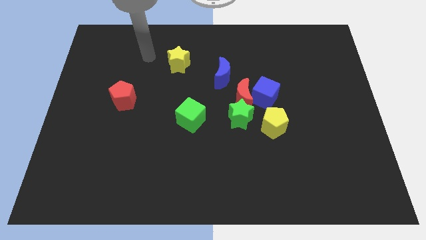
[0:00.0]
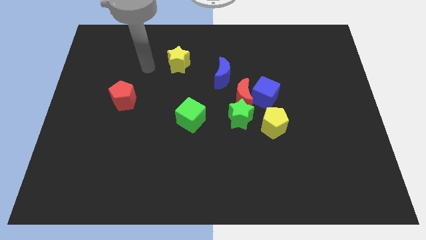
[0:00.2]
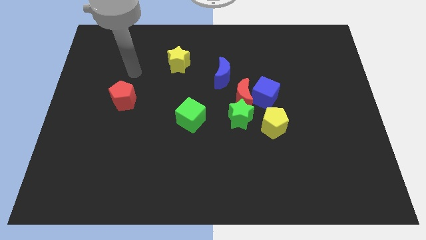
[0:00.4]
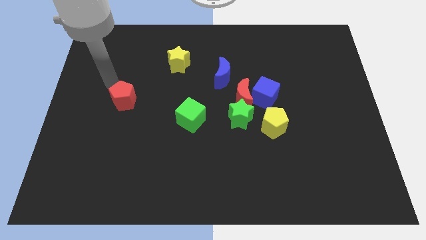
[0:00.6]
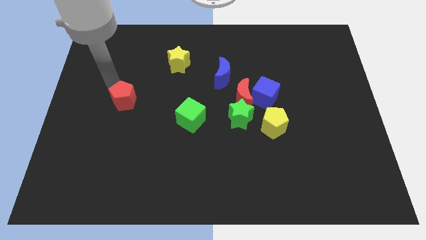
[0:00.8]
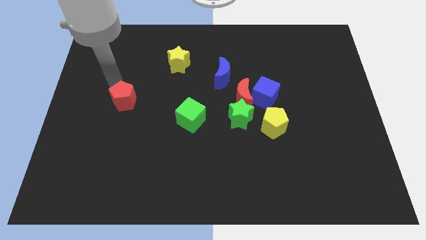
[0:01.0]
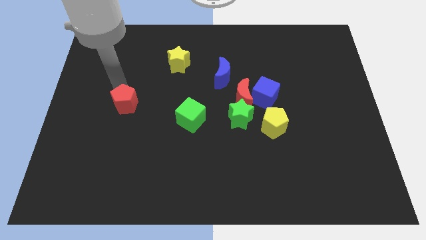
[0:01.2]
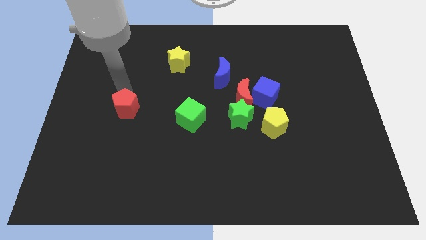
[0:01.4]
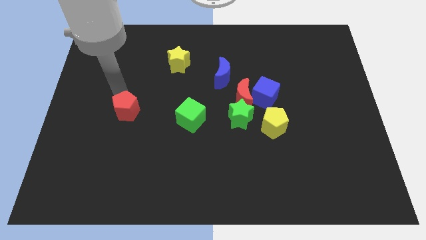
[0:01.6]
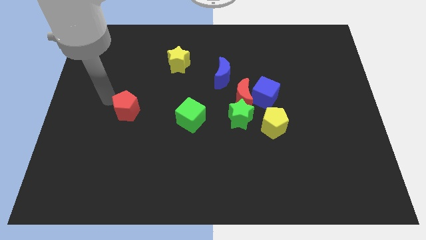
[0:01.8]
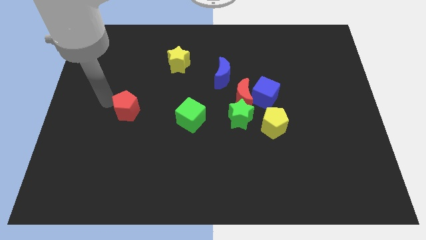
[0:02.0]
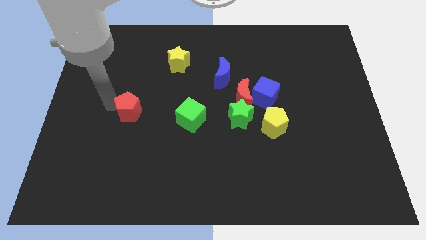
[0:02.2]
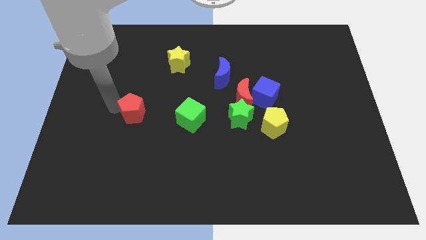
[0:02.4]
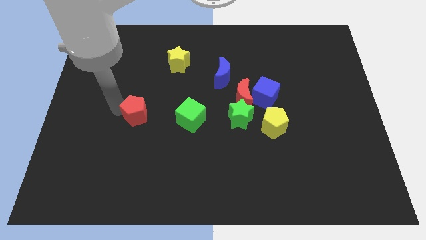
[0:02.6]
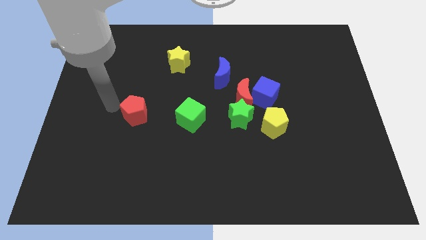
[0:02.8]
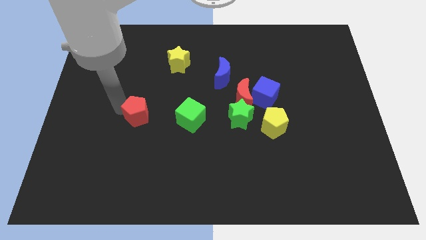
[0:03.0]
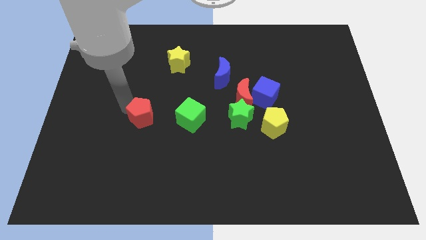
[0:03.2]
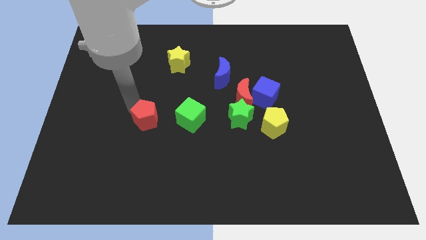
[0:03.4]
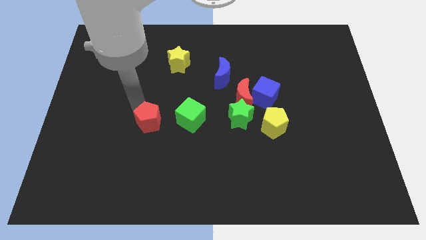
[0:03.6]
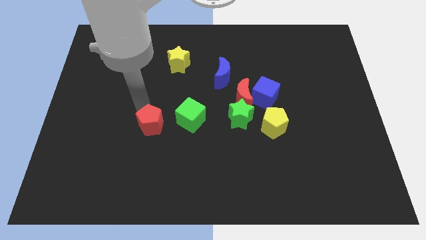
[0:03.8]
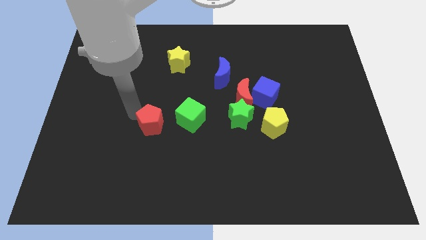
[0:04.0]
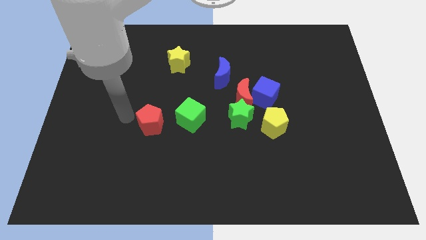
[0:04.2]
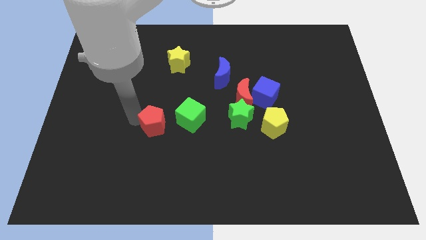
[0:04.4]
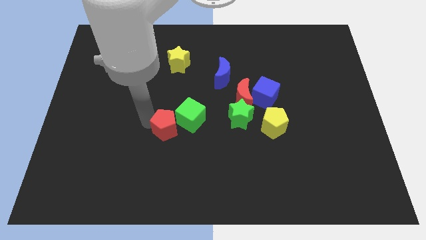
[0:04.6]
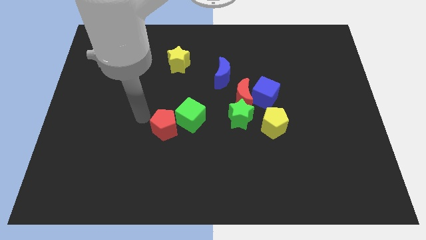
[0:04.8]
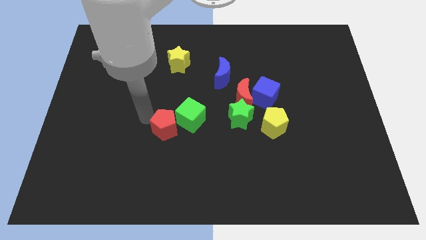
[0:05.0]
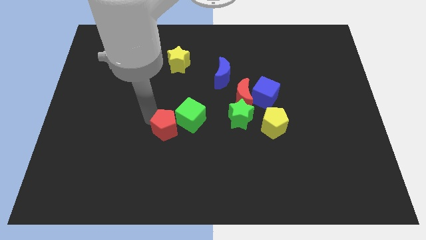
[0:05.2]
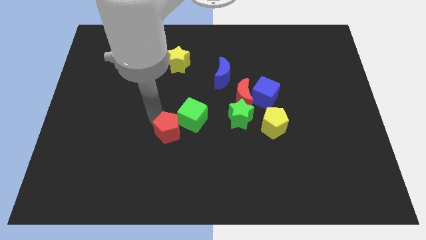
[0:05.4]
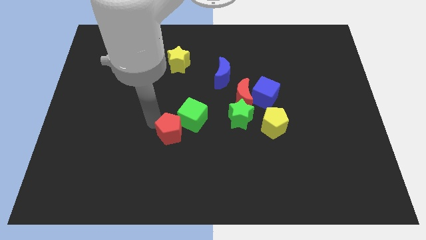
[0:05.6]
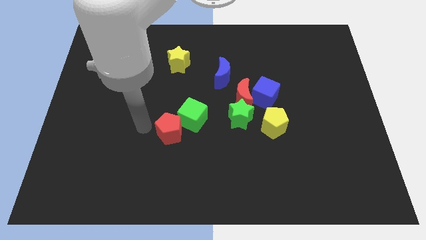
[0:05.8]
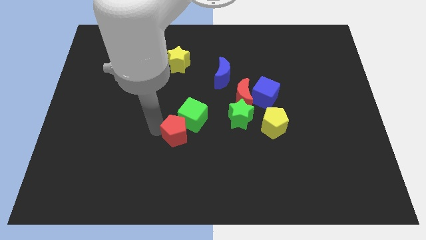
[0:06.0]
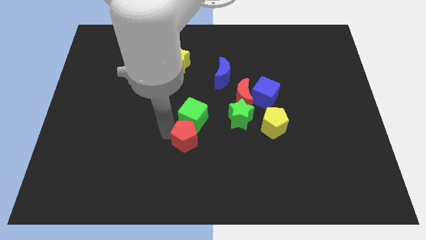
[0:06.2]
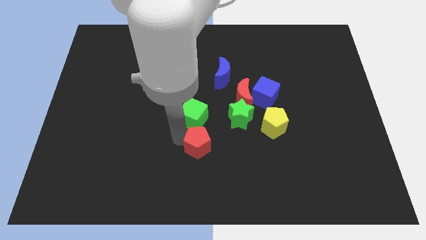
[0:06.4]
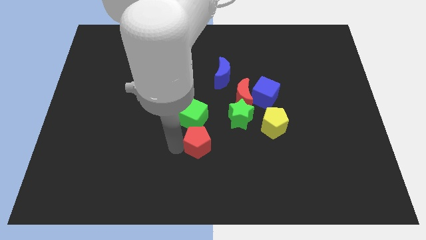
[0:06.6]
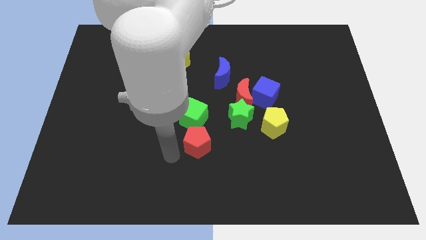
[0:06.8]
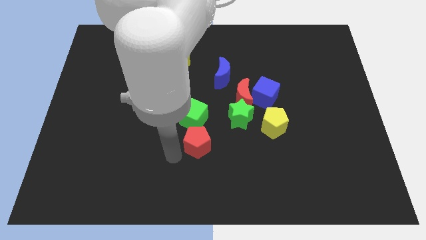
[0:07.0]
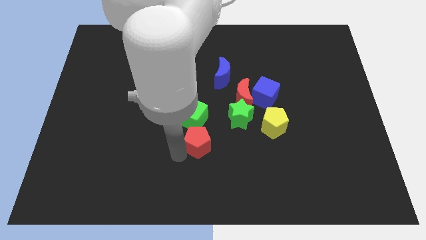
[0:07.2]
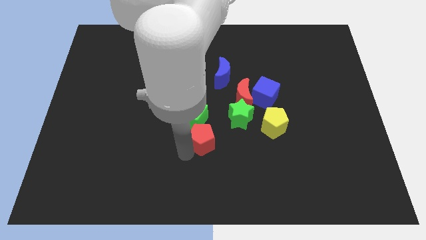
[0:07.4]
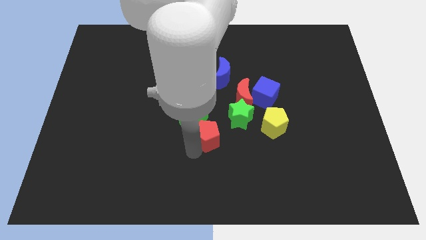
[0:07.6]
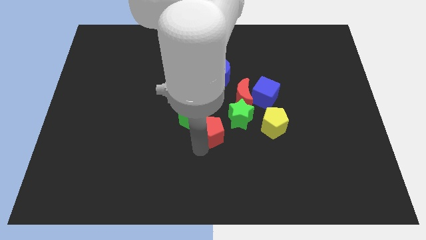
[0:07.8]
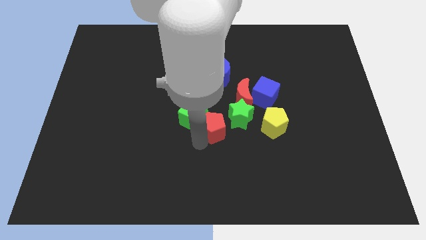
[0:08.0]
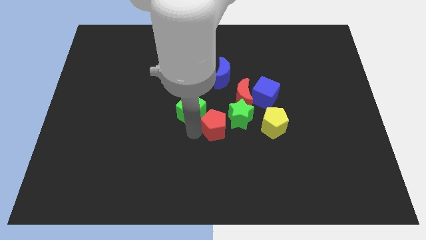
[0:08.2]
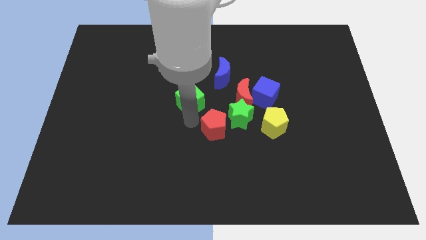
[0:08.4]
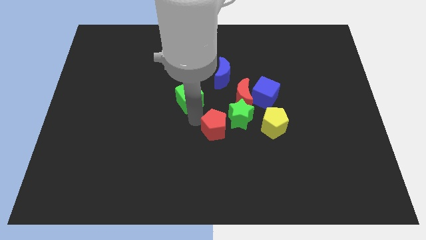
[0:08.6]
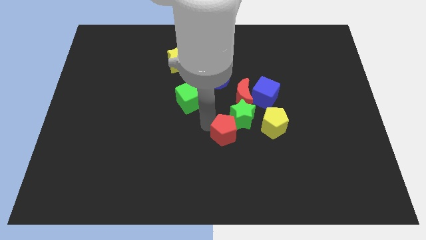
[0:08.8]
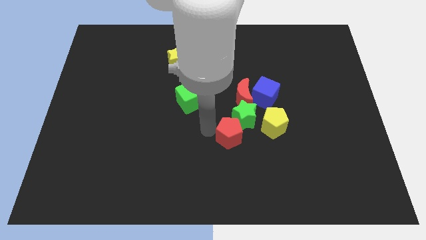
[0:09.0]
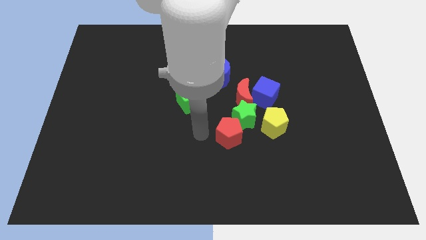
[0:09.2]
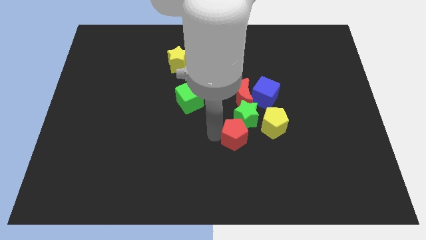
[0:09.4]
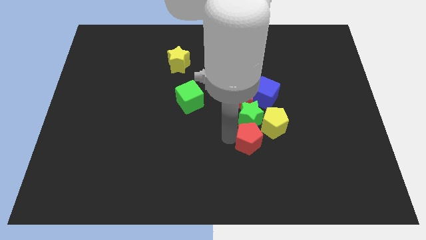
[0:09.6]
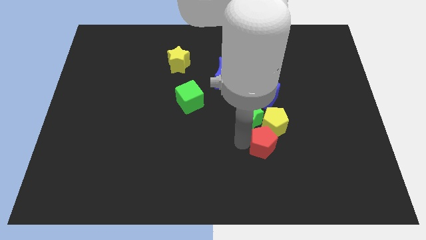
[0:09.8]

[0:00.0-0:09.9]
move the red pentagon to the yellow pentagon

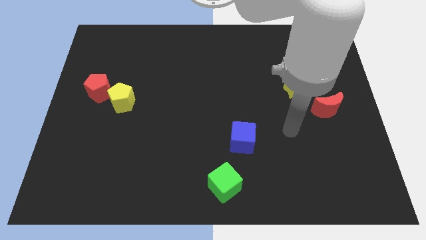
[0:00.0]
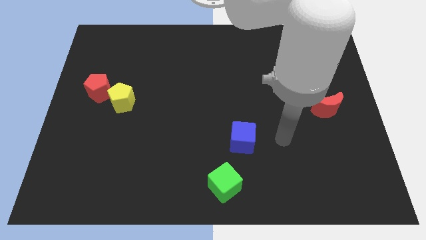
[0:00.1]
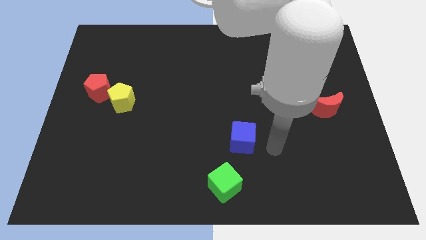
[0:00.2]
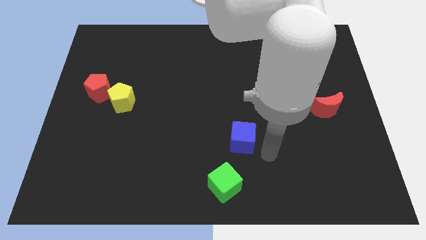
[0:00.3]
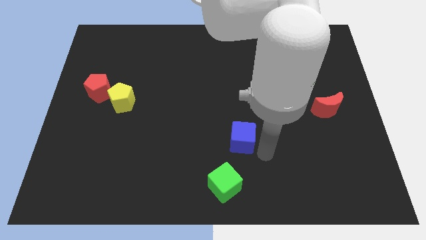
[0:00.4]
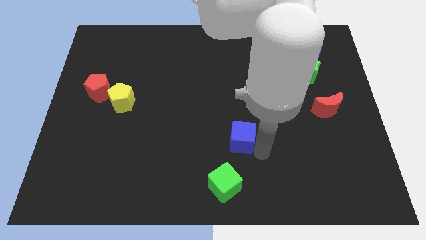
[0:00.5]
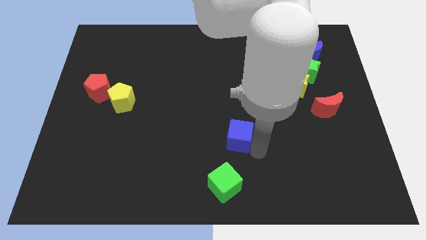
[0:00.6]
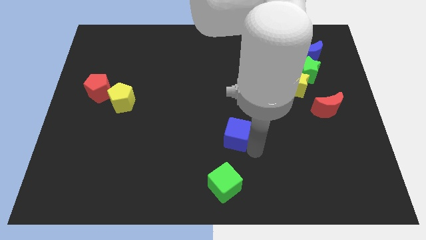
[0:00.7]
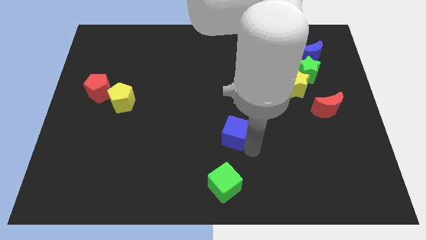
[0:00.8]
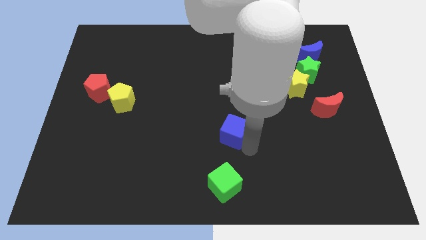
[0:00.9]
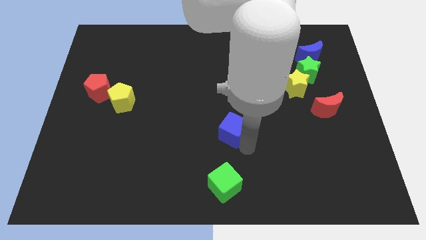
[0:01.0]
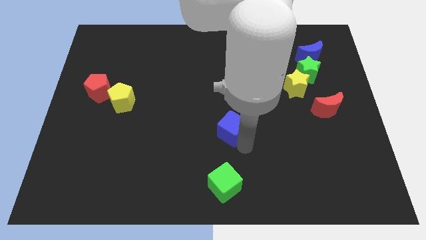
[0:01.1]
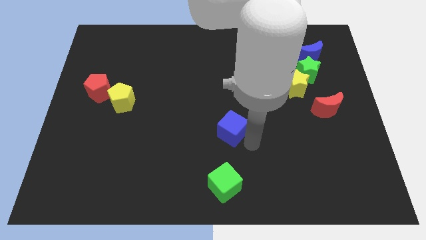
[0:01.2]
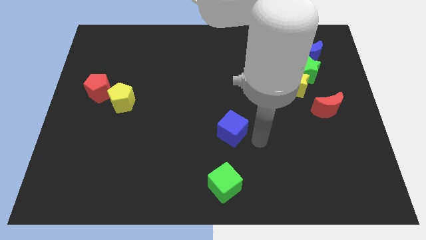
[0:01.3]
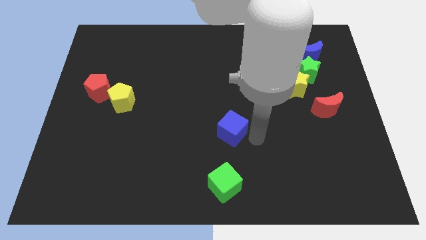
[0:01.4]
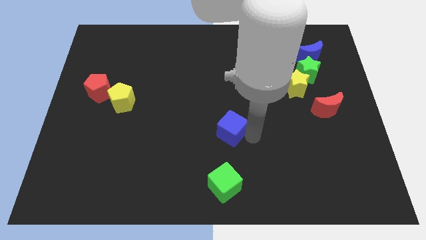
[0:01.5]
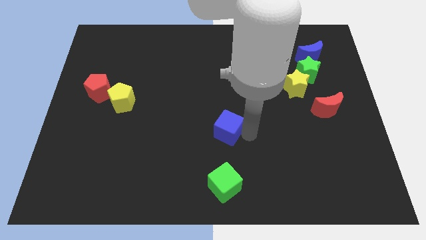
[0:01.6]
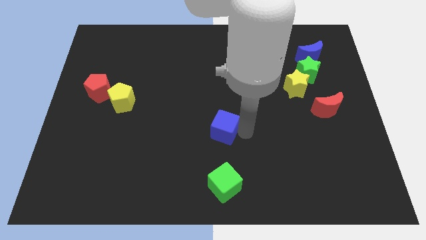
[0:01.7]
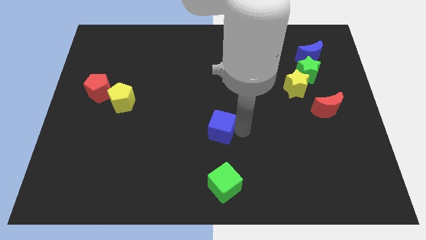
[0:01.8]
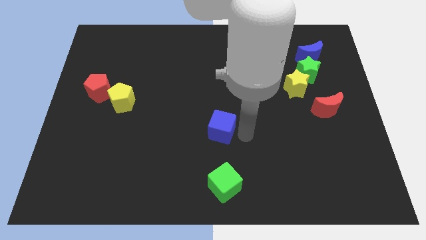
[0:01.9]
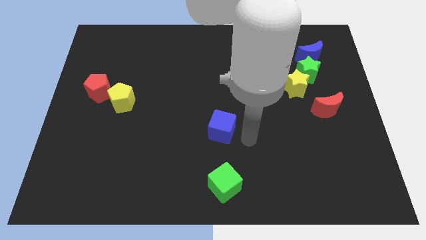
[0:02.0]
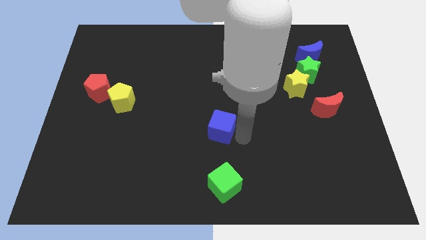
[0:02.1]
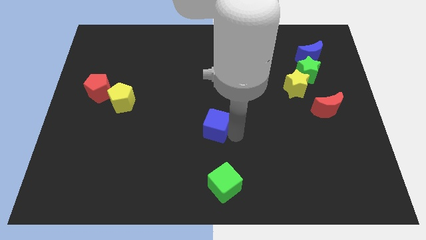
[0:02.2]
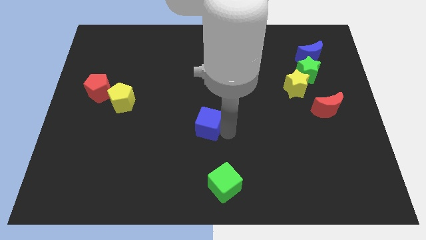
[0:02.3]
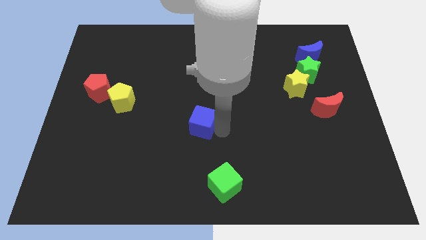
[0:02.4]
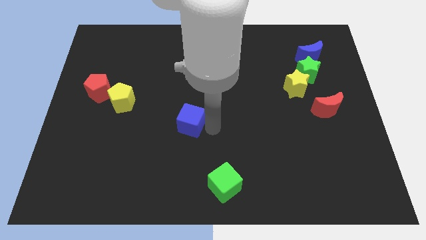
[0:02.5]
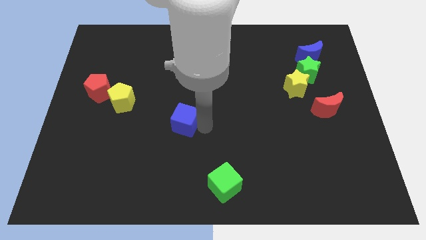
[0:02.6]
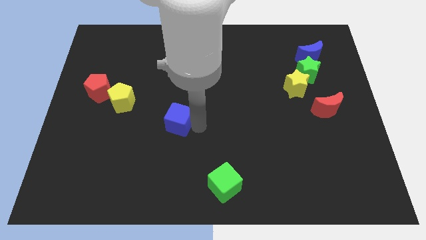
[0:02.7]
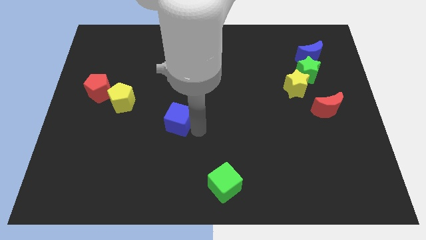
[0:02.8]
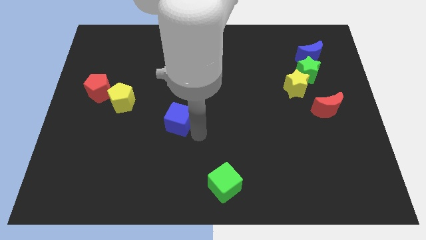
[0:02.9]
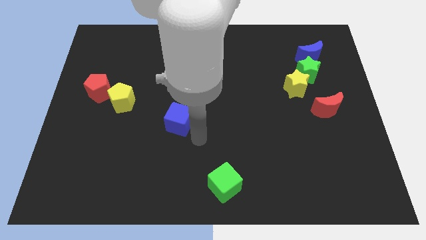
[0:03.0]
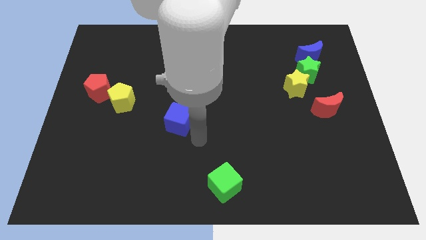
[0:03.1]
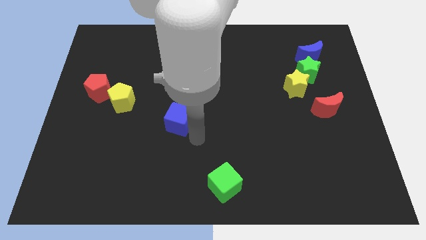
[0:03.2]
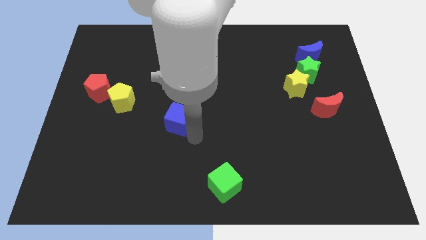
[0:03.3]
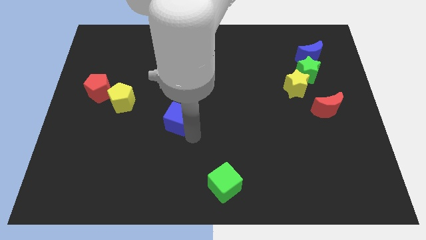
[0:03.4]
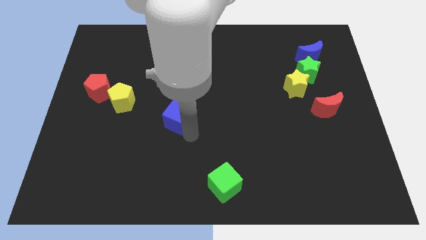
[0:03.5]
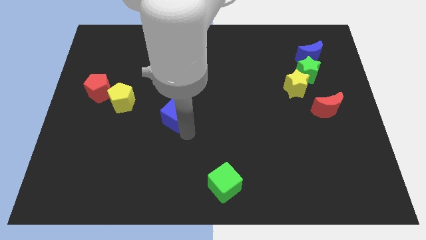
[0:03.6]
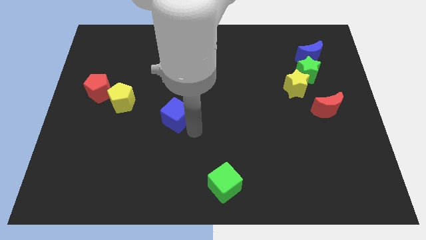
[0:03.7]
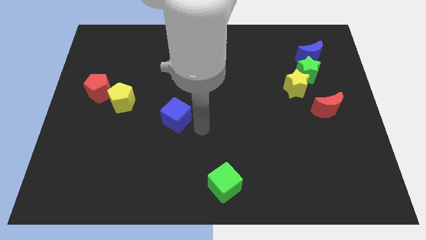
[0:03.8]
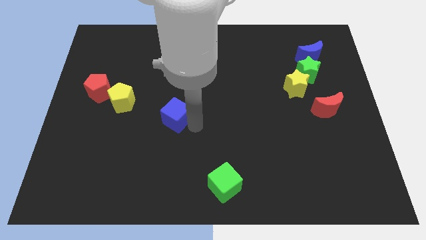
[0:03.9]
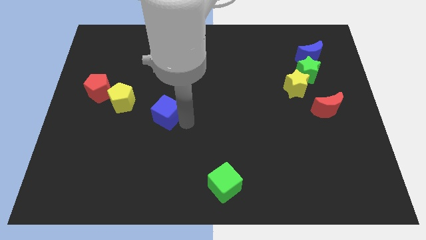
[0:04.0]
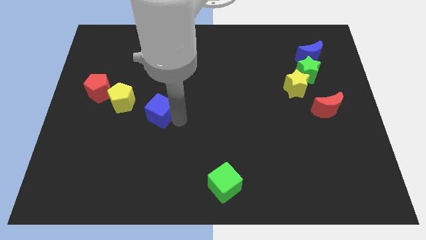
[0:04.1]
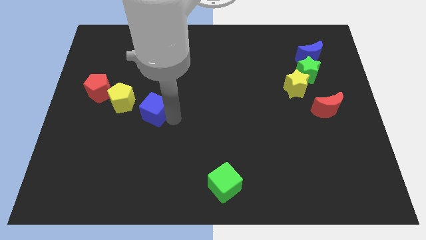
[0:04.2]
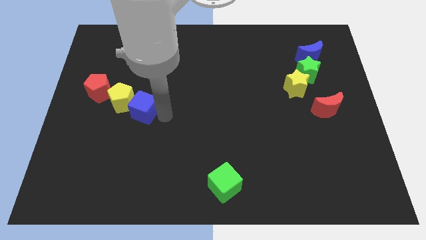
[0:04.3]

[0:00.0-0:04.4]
move the blue cube to the yellow pentagon
